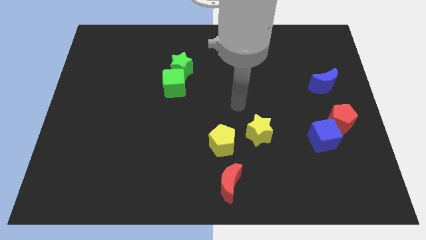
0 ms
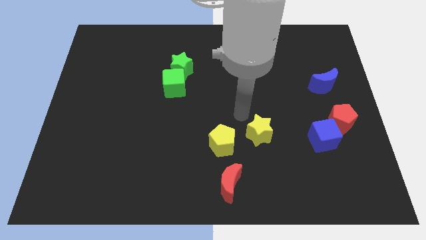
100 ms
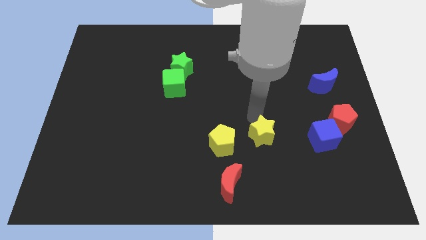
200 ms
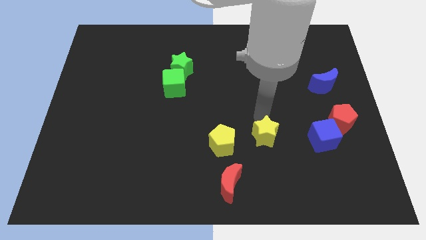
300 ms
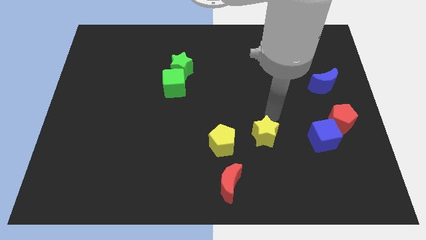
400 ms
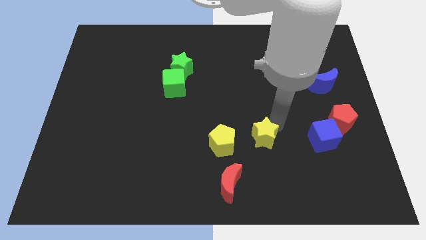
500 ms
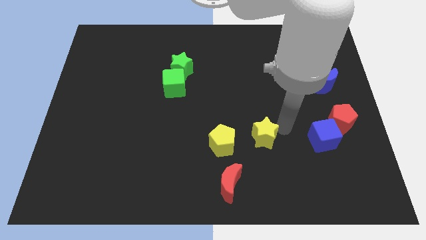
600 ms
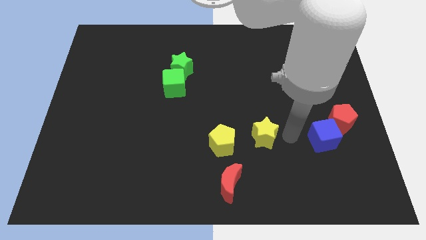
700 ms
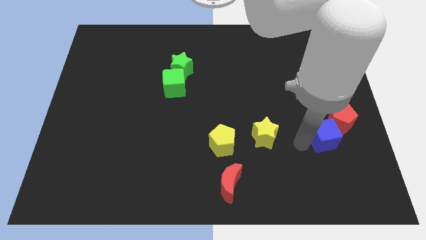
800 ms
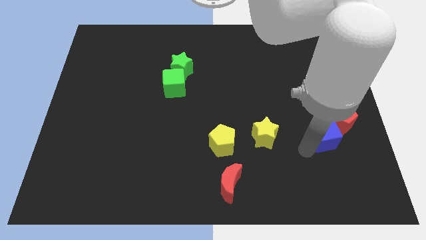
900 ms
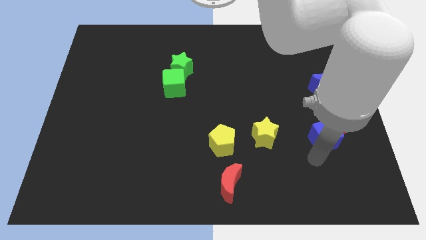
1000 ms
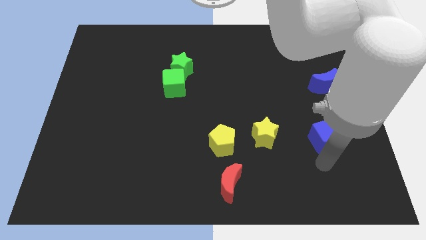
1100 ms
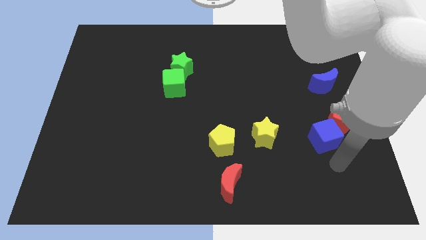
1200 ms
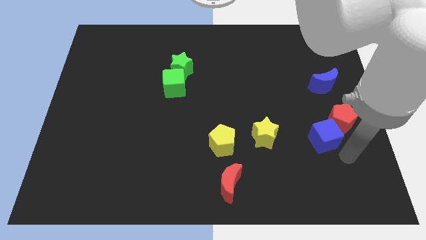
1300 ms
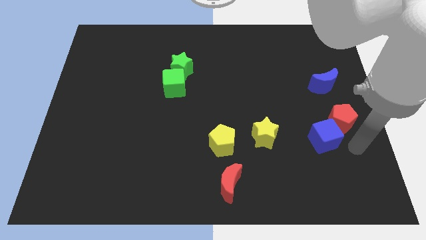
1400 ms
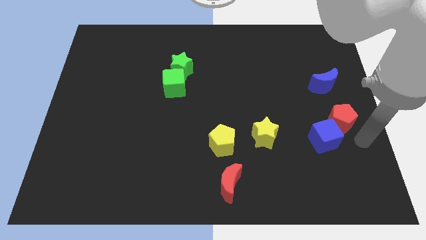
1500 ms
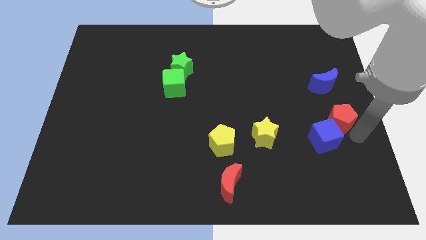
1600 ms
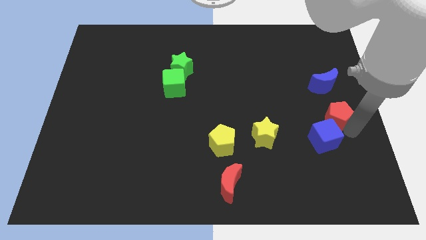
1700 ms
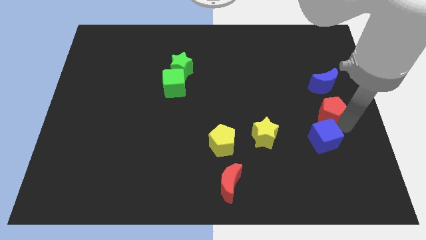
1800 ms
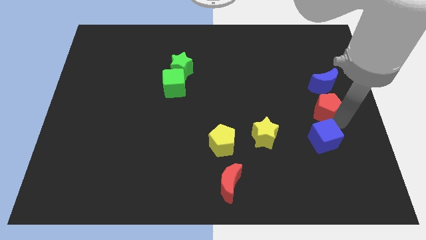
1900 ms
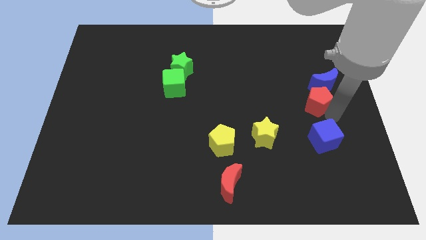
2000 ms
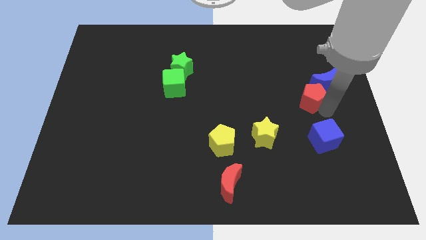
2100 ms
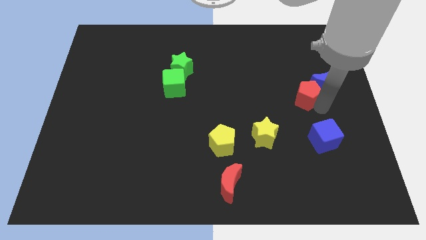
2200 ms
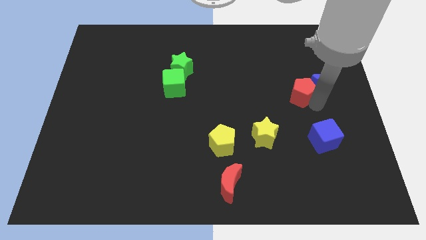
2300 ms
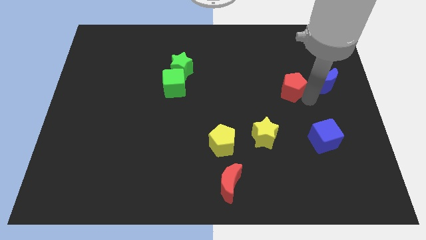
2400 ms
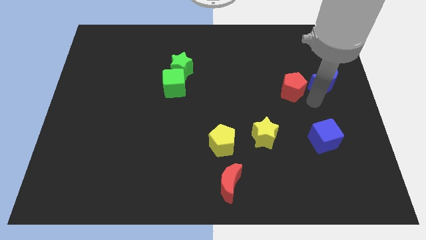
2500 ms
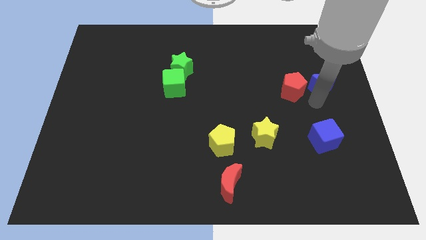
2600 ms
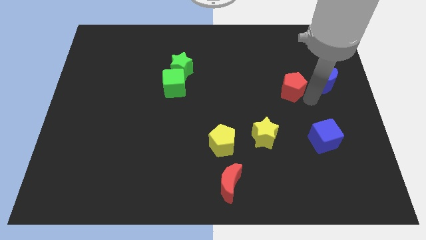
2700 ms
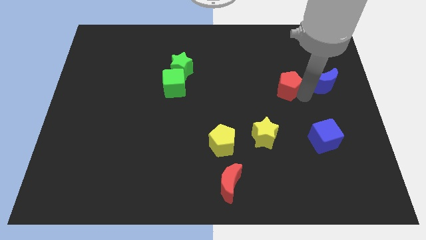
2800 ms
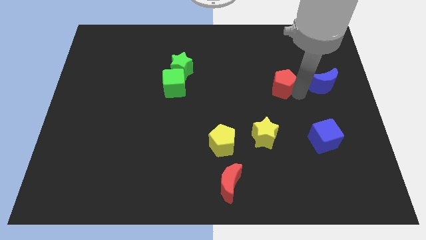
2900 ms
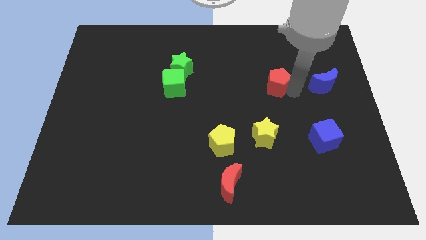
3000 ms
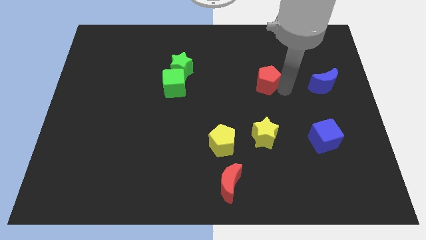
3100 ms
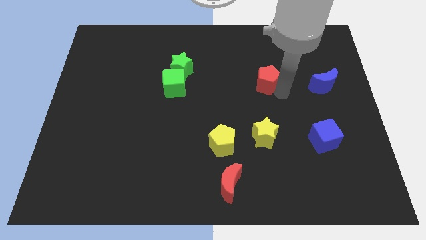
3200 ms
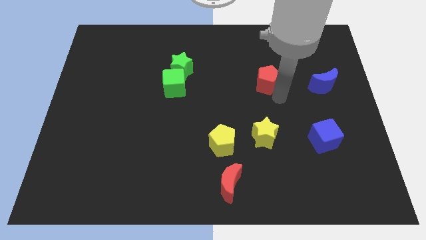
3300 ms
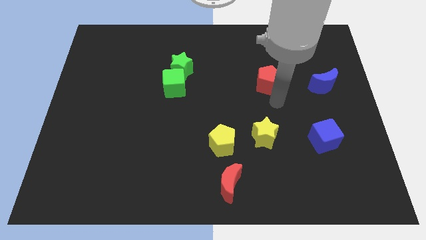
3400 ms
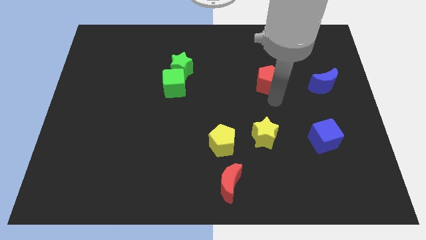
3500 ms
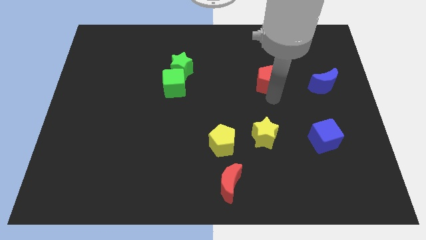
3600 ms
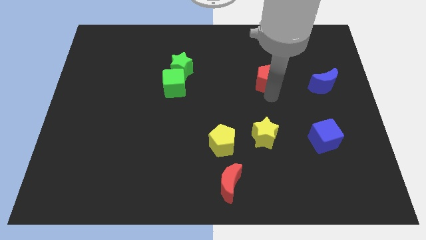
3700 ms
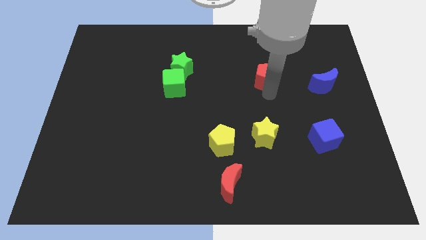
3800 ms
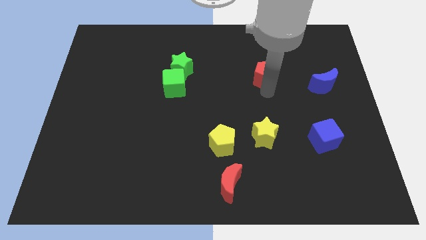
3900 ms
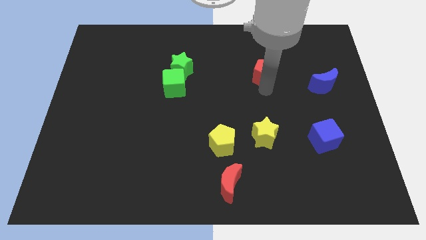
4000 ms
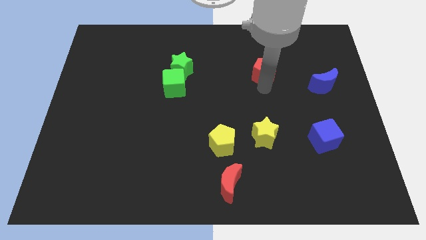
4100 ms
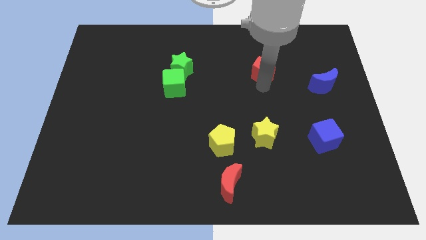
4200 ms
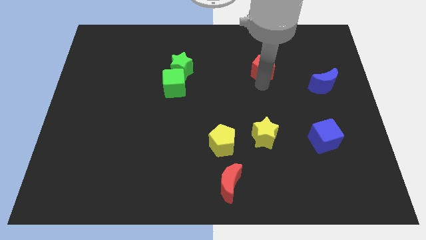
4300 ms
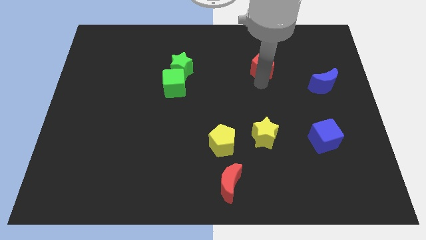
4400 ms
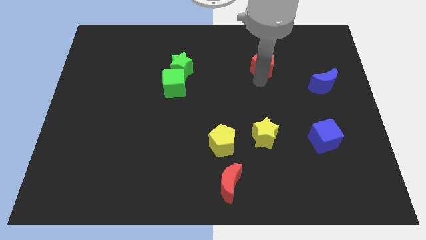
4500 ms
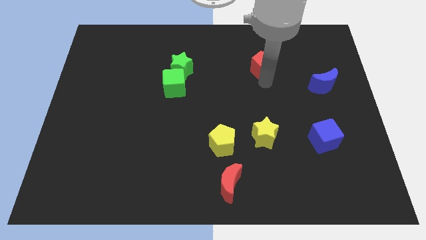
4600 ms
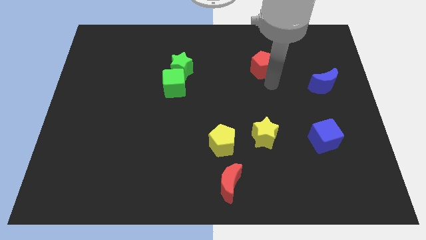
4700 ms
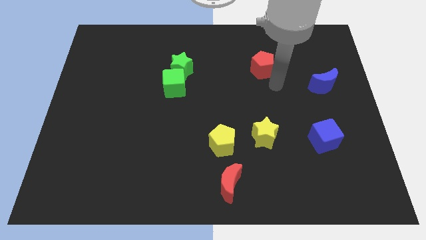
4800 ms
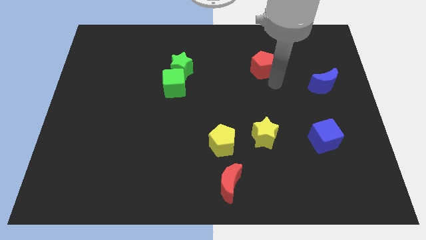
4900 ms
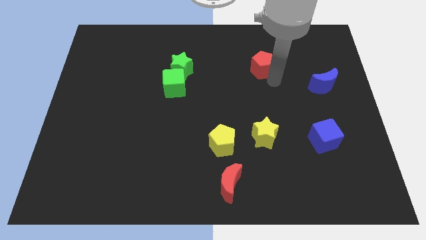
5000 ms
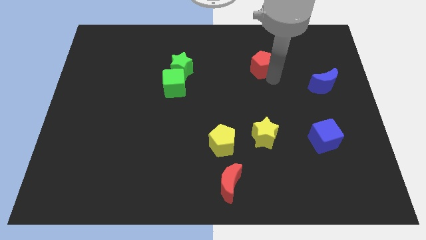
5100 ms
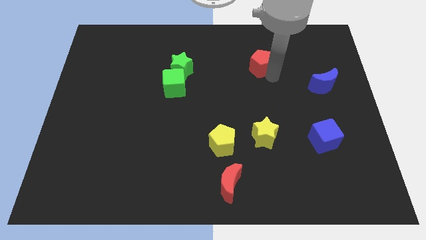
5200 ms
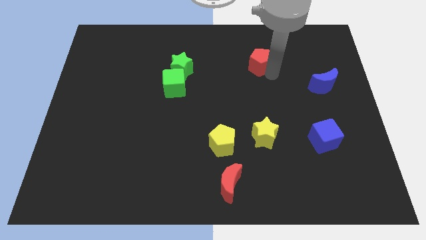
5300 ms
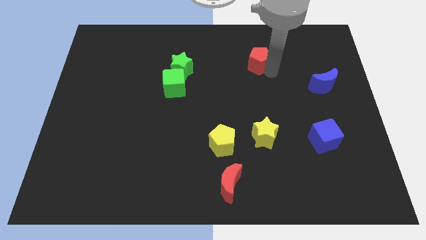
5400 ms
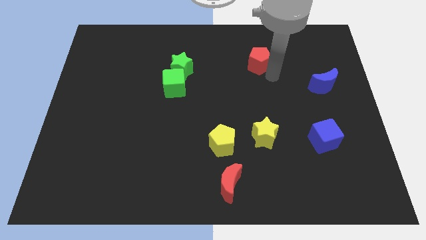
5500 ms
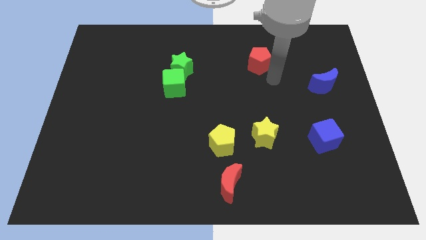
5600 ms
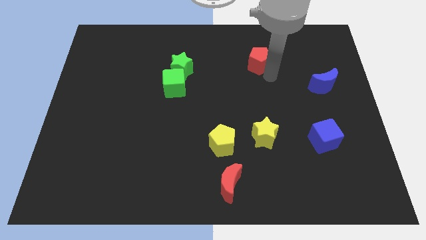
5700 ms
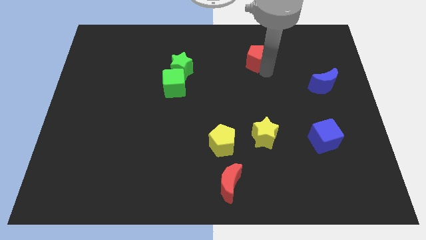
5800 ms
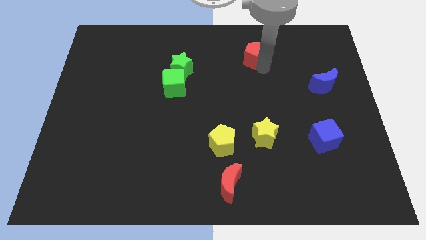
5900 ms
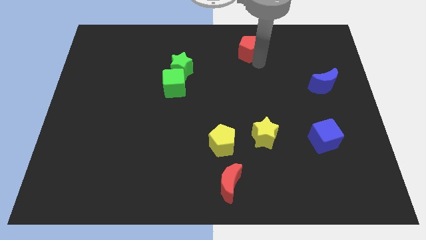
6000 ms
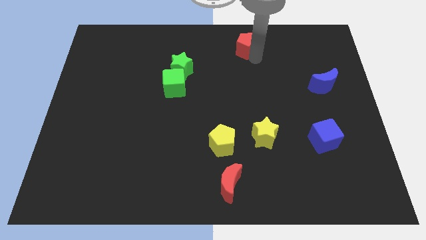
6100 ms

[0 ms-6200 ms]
slide the red pentagon to the top side
